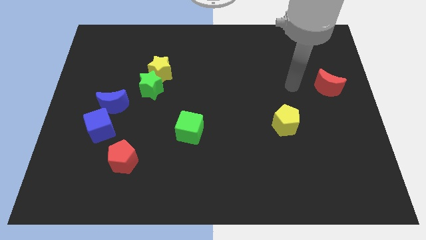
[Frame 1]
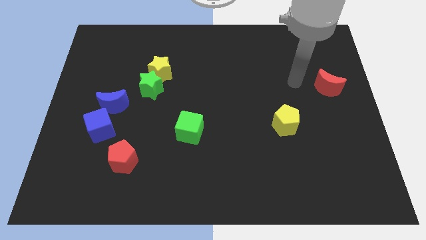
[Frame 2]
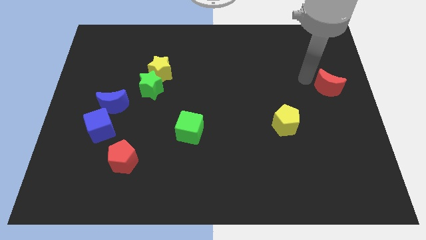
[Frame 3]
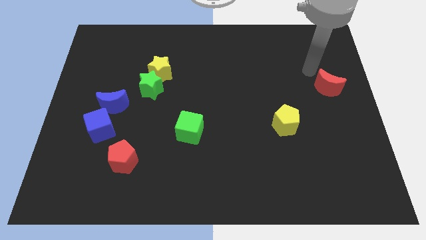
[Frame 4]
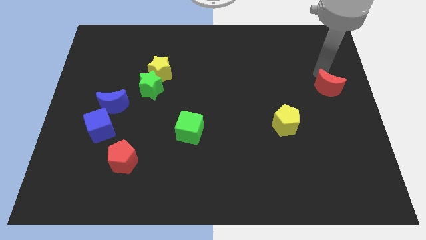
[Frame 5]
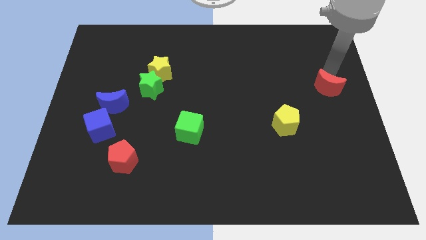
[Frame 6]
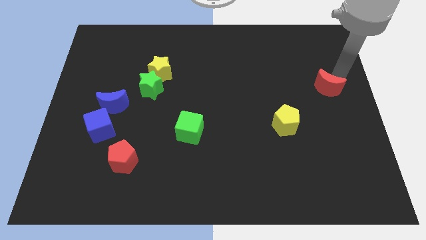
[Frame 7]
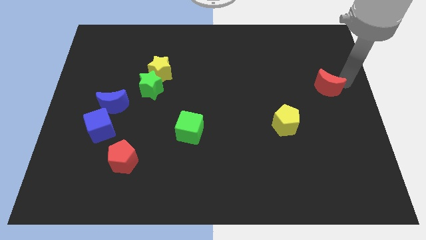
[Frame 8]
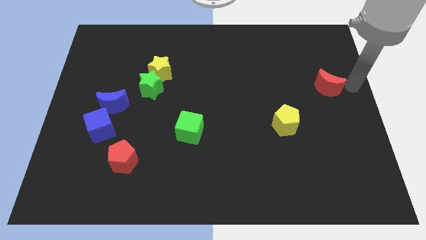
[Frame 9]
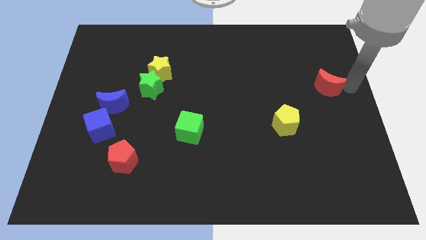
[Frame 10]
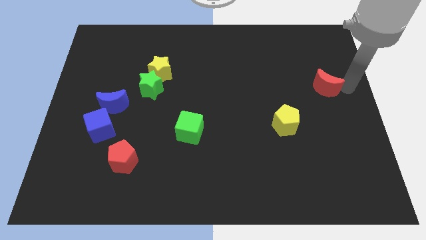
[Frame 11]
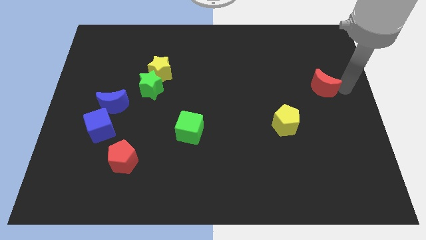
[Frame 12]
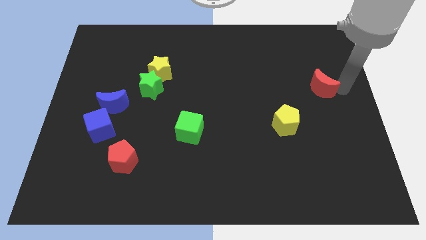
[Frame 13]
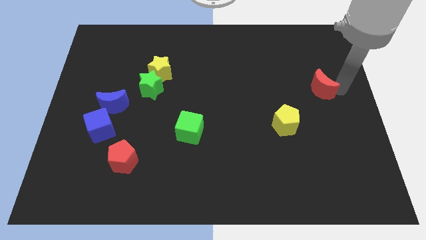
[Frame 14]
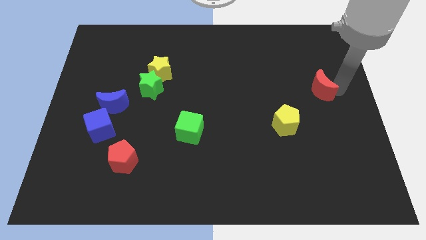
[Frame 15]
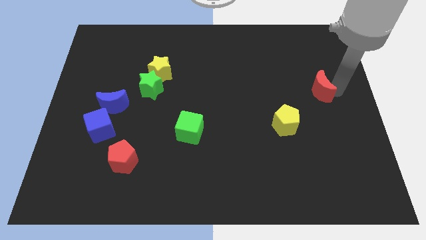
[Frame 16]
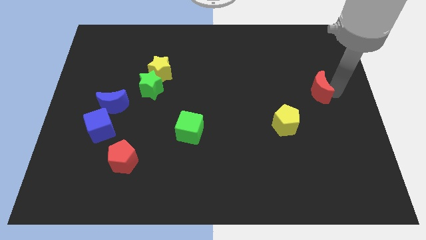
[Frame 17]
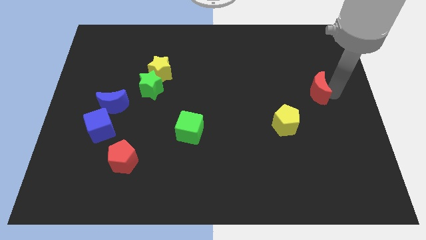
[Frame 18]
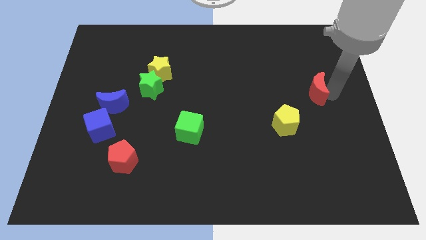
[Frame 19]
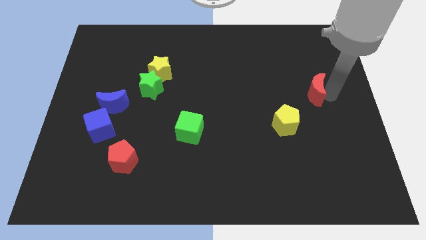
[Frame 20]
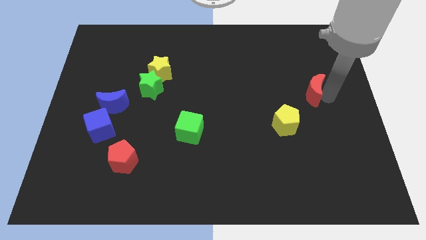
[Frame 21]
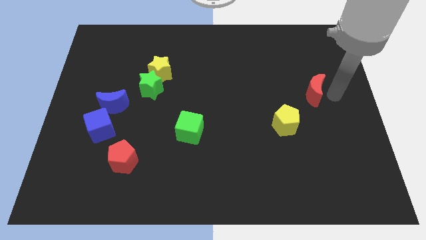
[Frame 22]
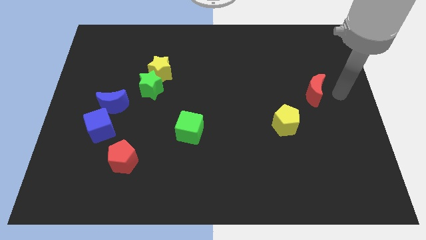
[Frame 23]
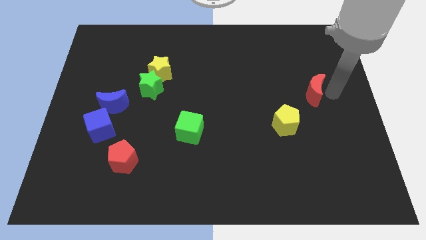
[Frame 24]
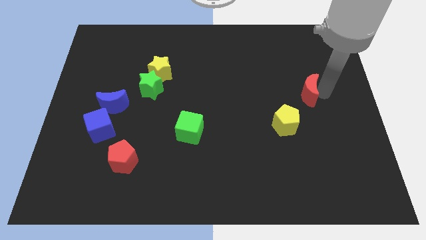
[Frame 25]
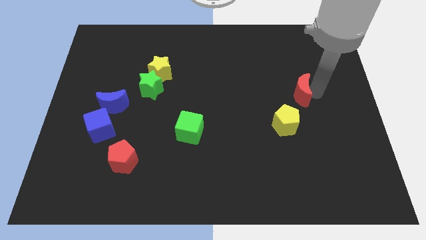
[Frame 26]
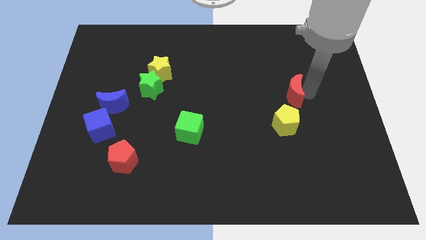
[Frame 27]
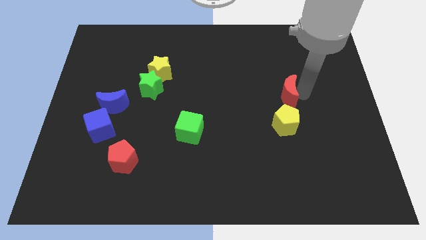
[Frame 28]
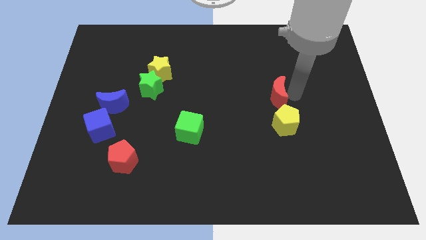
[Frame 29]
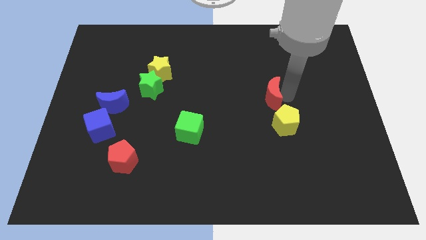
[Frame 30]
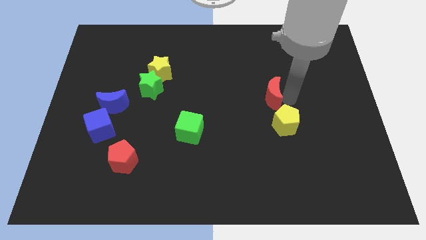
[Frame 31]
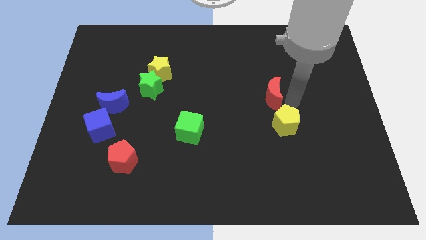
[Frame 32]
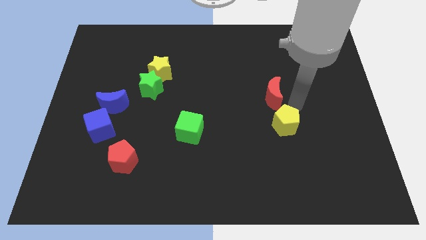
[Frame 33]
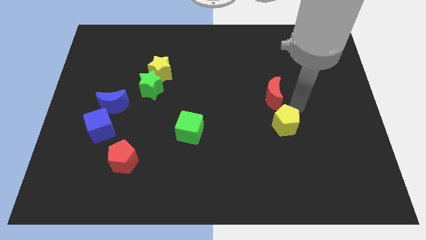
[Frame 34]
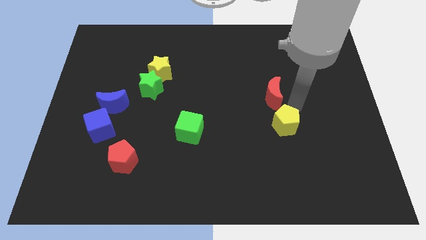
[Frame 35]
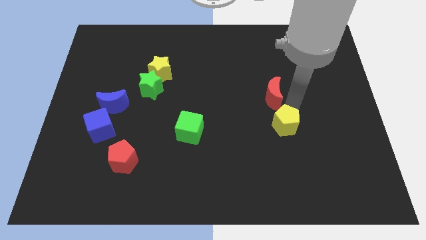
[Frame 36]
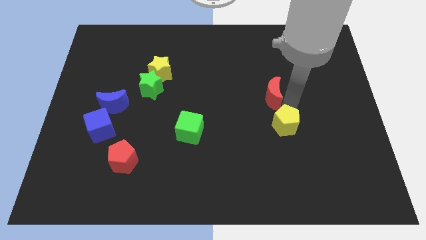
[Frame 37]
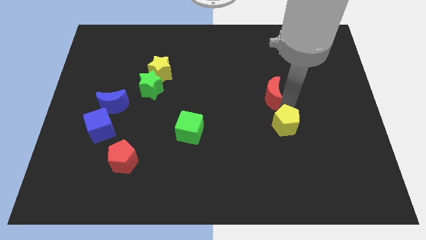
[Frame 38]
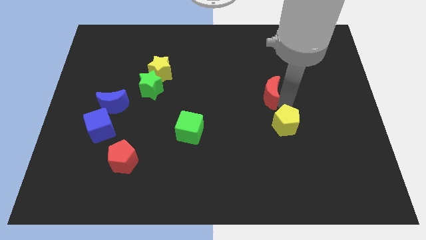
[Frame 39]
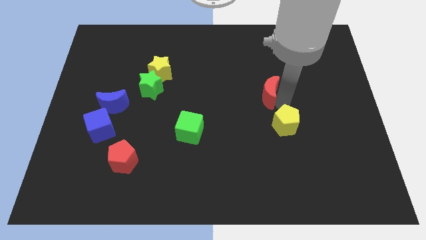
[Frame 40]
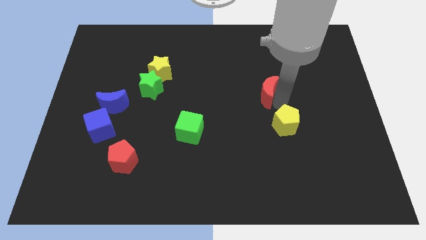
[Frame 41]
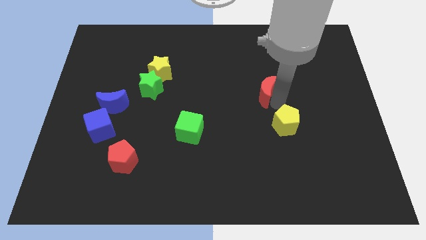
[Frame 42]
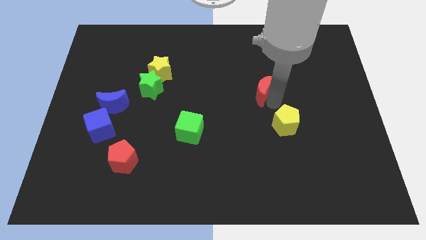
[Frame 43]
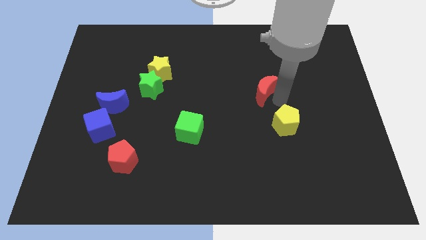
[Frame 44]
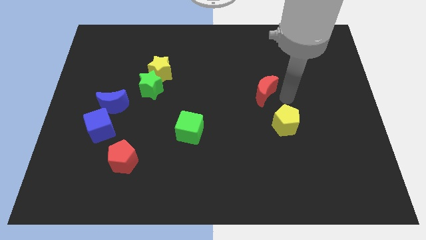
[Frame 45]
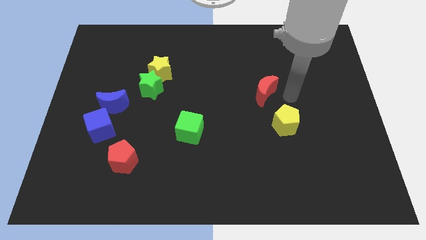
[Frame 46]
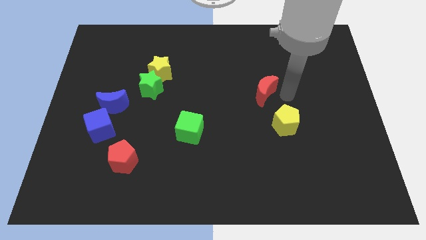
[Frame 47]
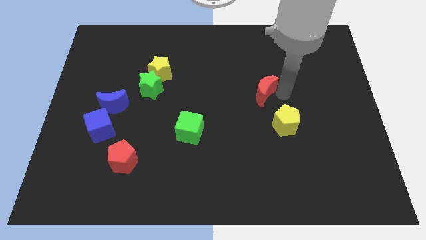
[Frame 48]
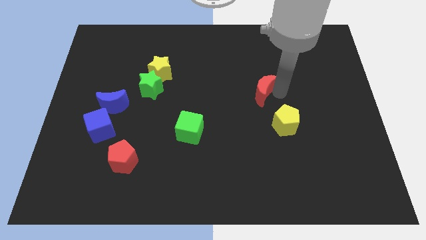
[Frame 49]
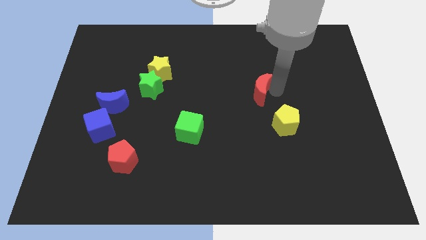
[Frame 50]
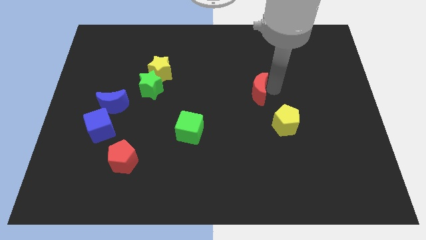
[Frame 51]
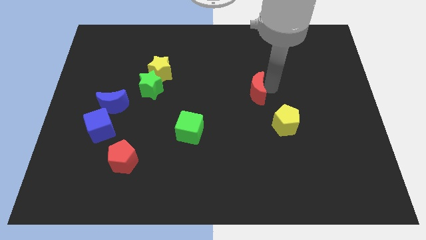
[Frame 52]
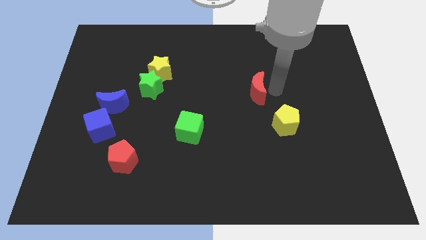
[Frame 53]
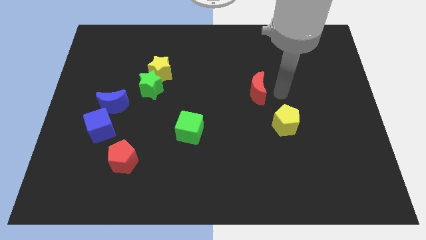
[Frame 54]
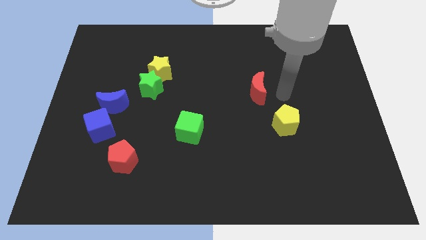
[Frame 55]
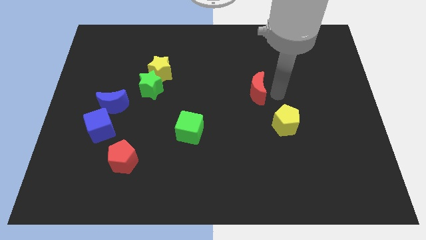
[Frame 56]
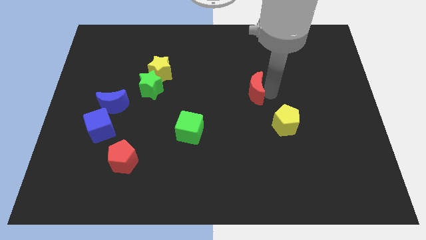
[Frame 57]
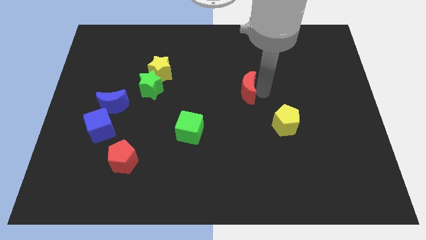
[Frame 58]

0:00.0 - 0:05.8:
slide the red moon to the left

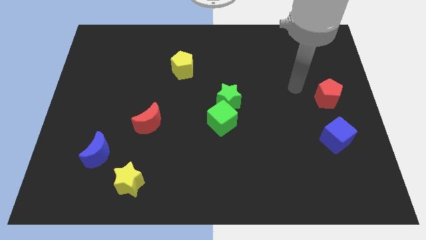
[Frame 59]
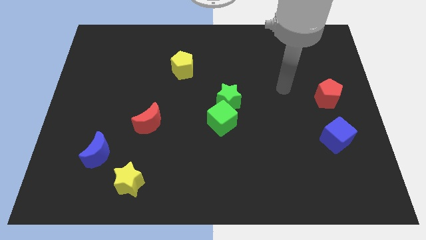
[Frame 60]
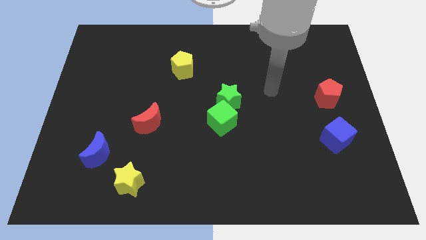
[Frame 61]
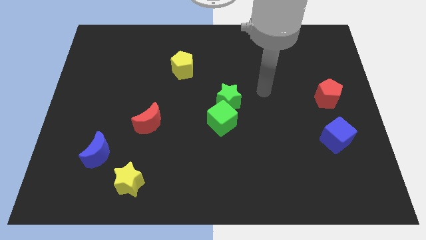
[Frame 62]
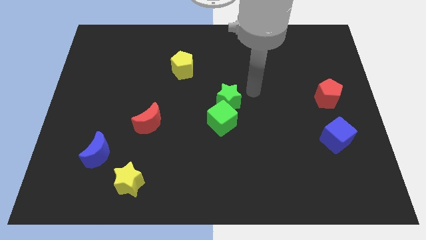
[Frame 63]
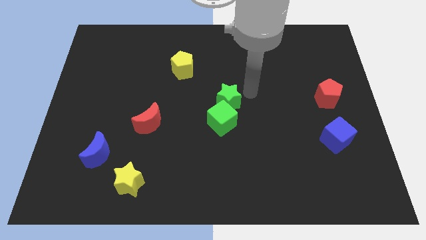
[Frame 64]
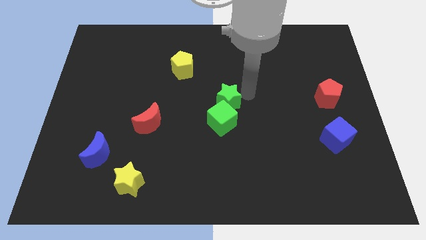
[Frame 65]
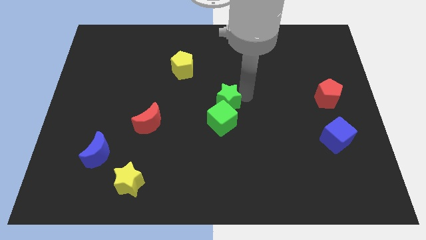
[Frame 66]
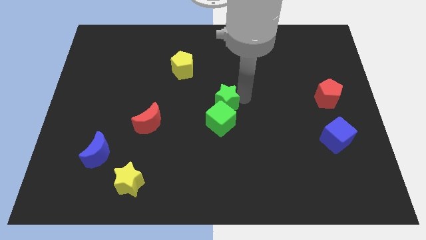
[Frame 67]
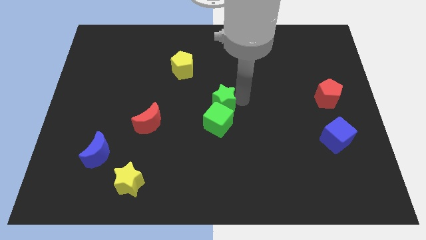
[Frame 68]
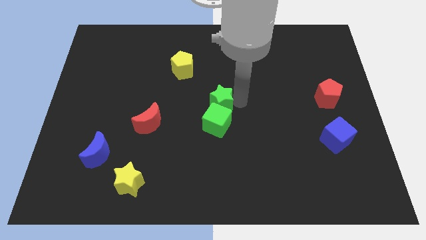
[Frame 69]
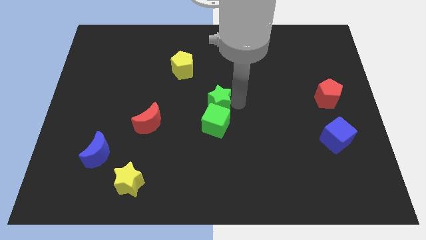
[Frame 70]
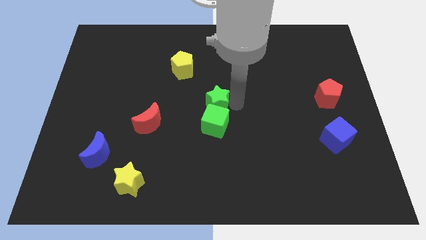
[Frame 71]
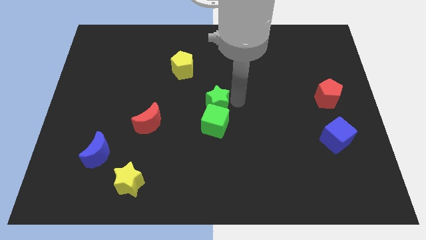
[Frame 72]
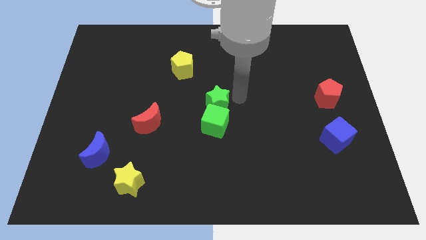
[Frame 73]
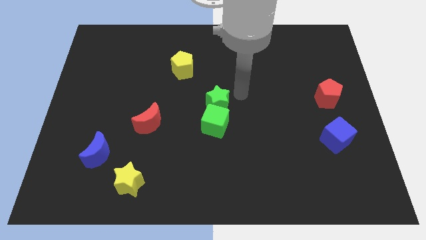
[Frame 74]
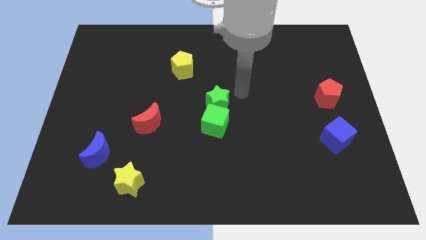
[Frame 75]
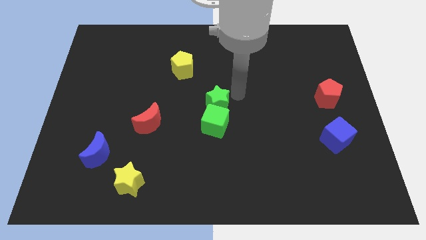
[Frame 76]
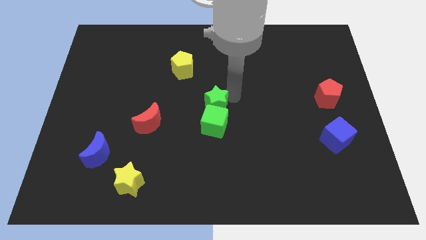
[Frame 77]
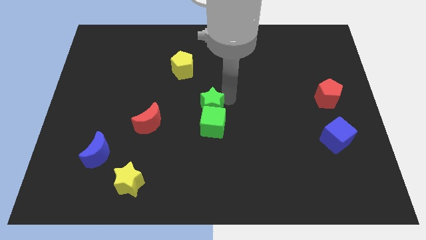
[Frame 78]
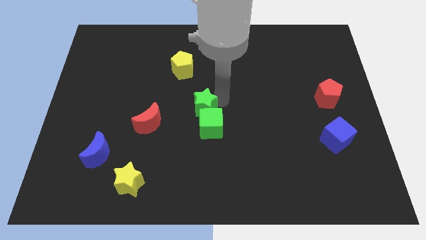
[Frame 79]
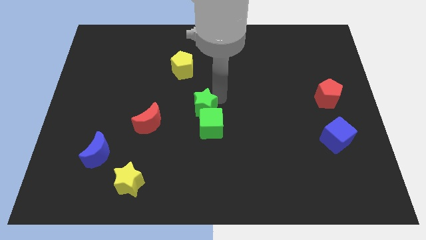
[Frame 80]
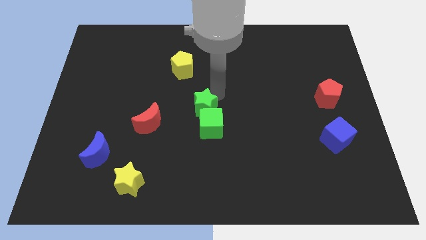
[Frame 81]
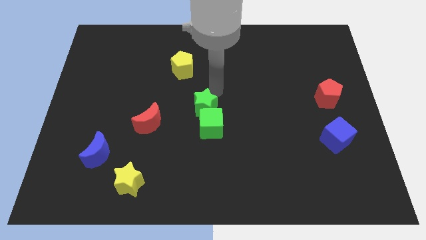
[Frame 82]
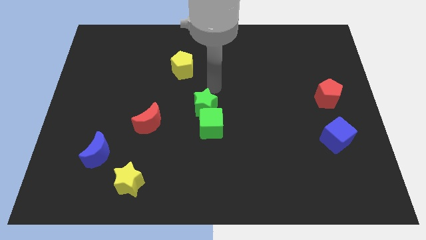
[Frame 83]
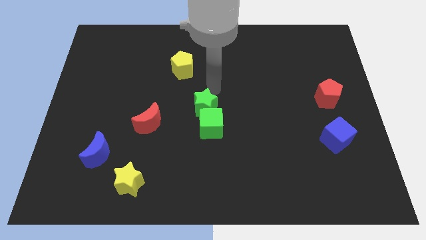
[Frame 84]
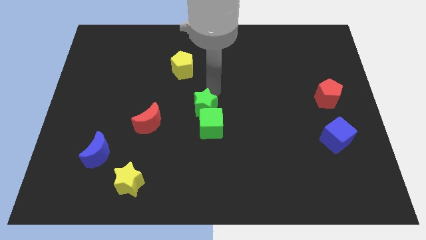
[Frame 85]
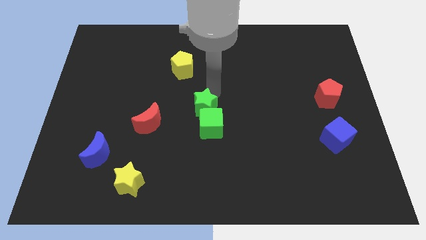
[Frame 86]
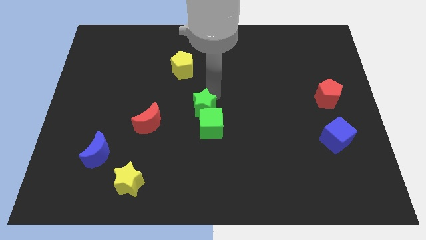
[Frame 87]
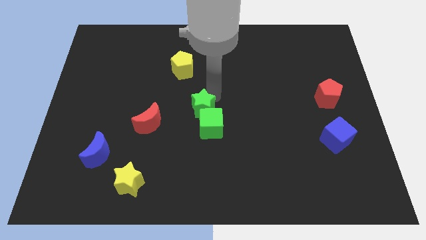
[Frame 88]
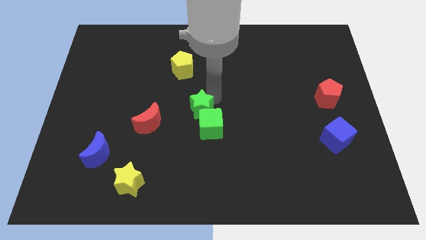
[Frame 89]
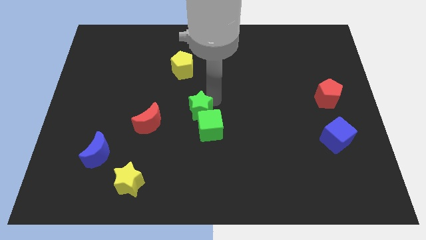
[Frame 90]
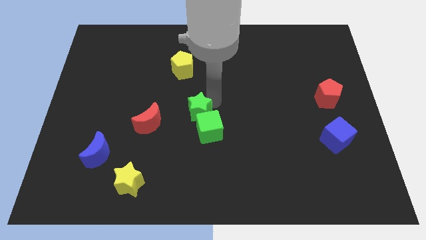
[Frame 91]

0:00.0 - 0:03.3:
slightly move the green star downwards and to the left
